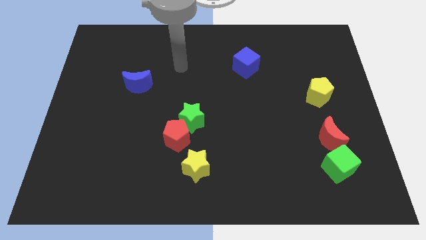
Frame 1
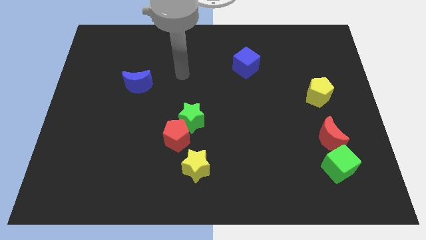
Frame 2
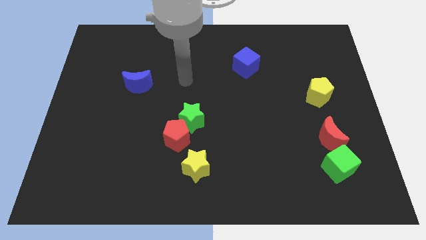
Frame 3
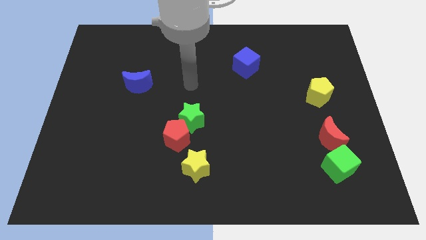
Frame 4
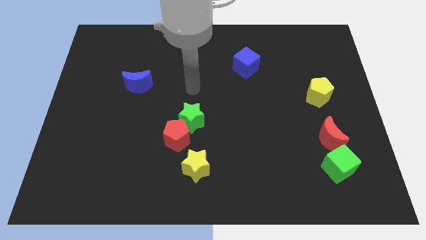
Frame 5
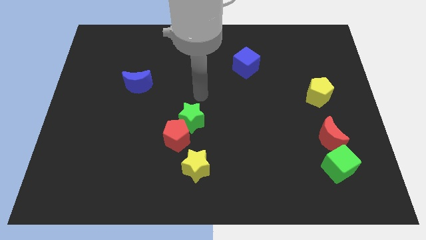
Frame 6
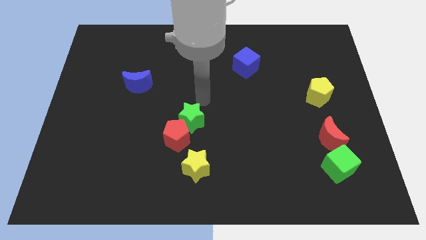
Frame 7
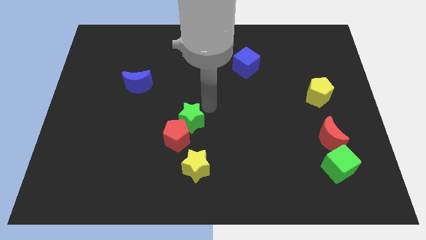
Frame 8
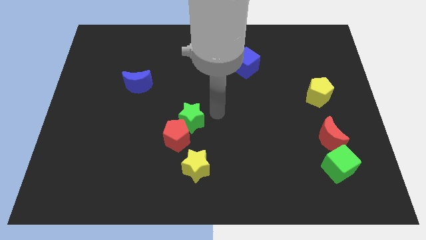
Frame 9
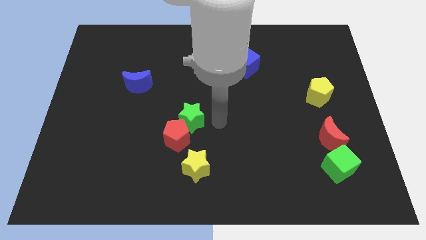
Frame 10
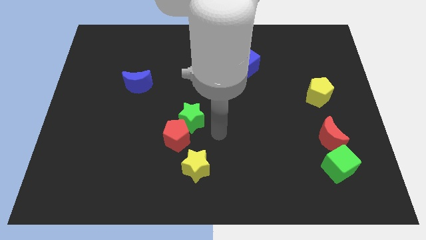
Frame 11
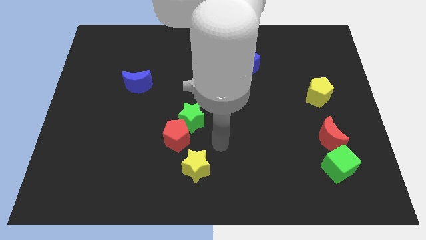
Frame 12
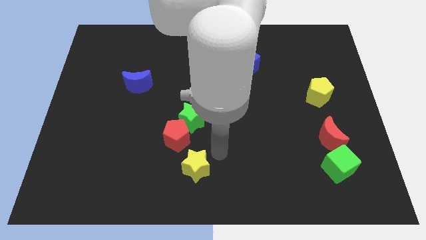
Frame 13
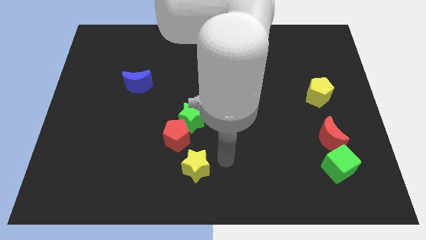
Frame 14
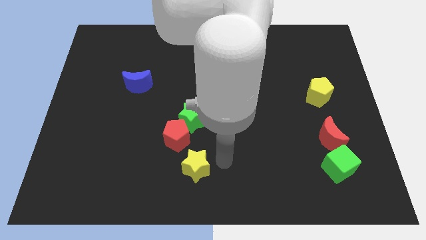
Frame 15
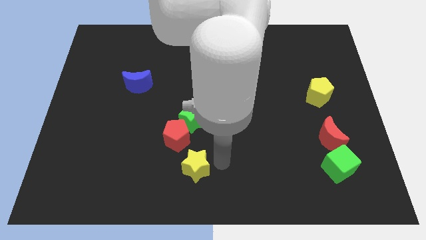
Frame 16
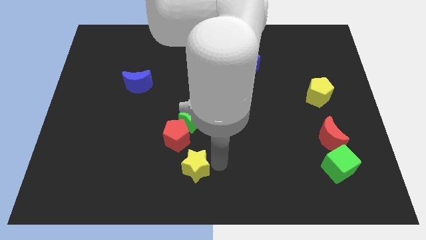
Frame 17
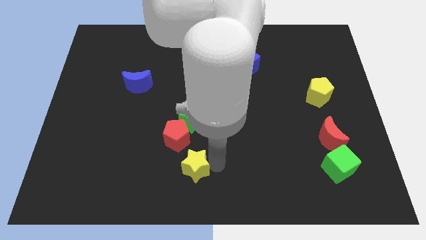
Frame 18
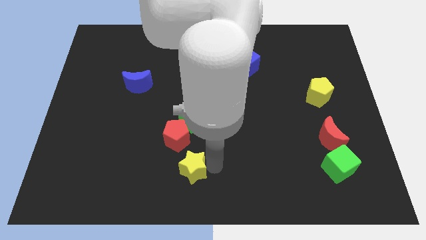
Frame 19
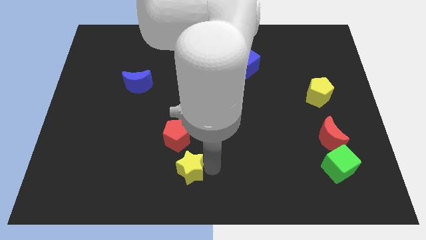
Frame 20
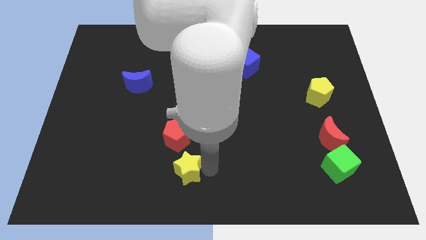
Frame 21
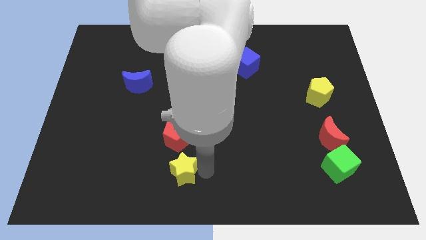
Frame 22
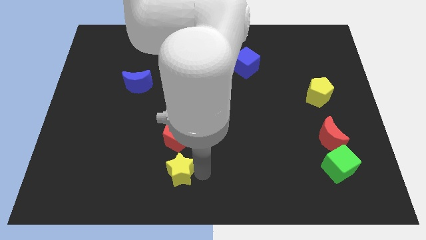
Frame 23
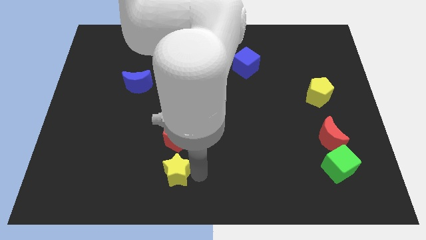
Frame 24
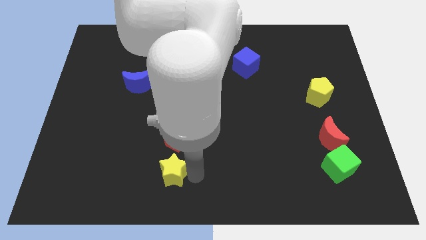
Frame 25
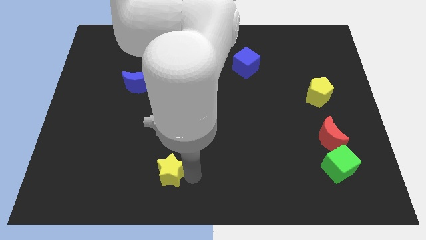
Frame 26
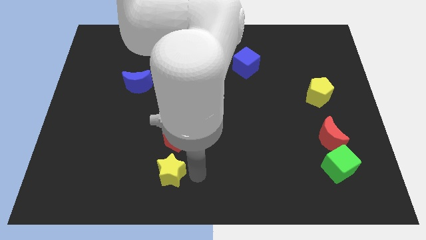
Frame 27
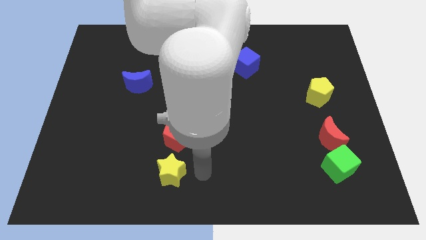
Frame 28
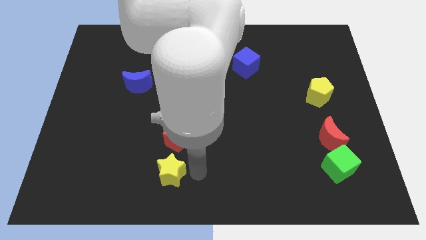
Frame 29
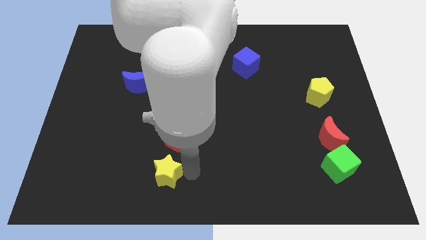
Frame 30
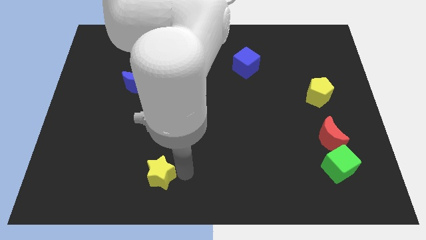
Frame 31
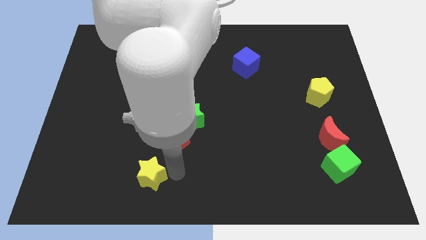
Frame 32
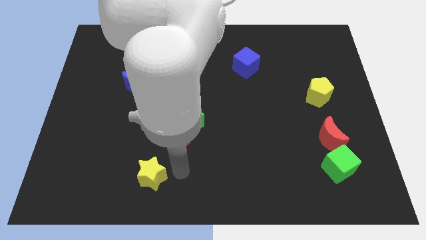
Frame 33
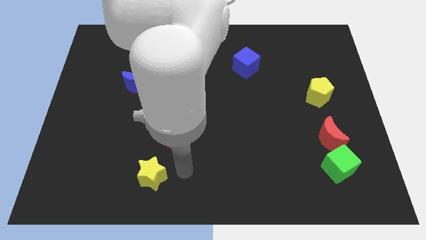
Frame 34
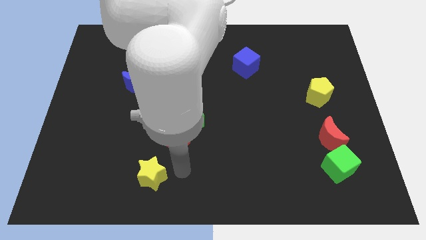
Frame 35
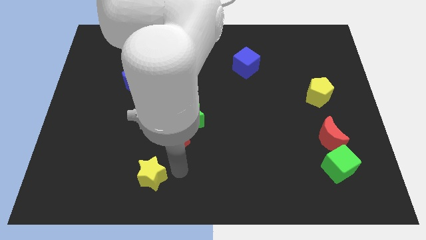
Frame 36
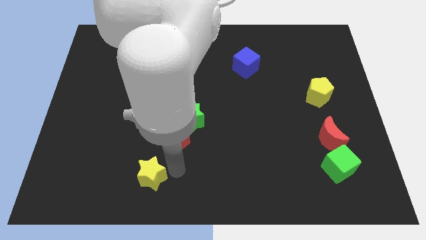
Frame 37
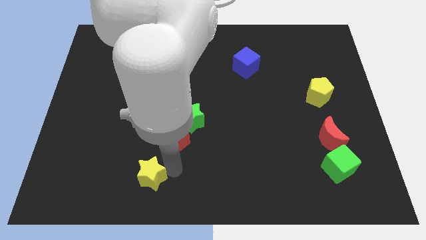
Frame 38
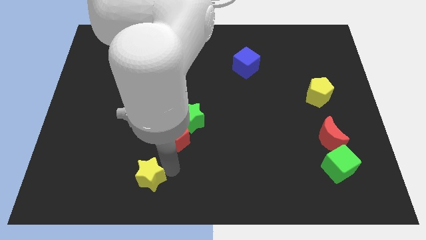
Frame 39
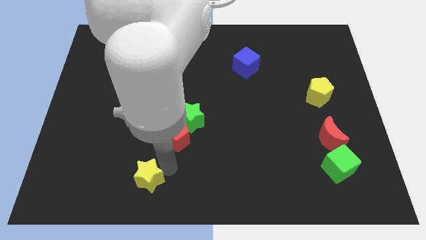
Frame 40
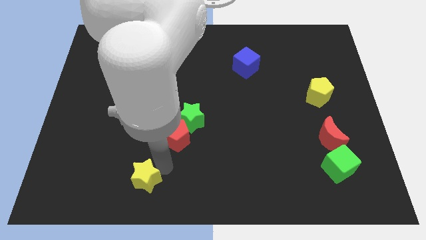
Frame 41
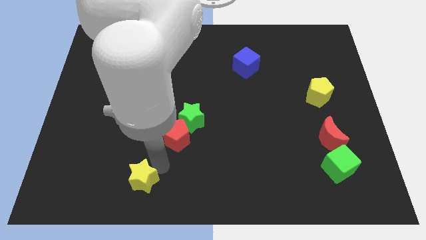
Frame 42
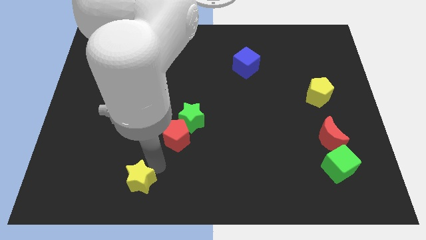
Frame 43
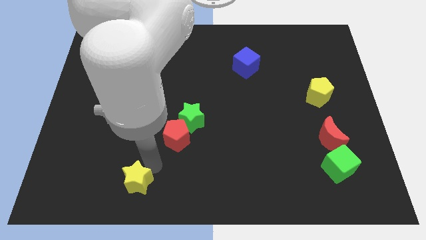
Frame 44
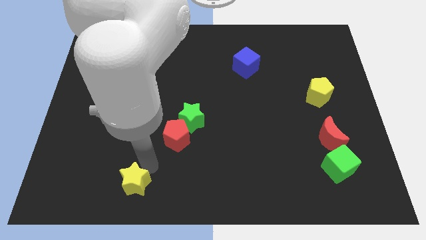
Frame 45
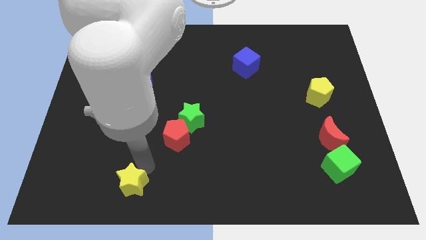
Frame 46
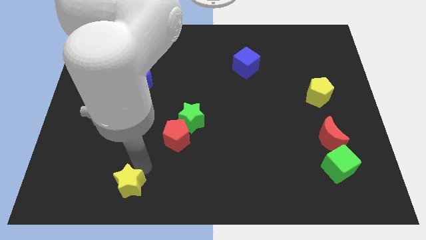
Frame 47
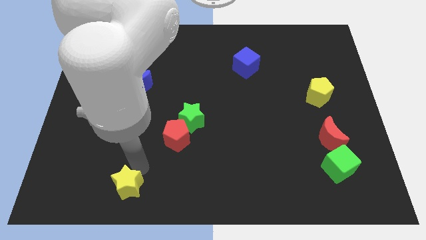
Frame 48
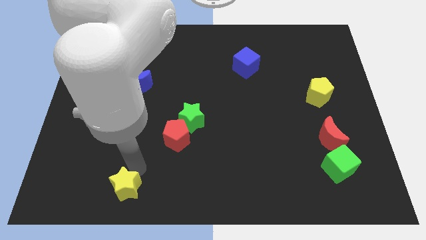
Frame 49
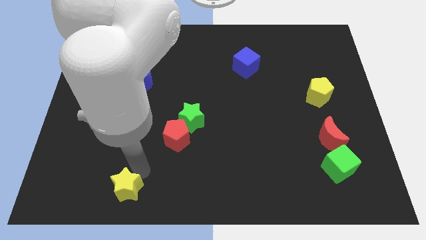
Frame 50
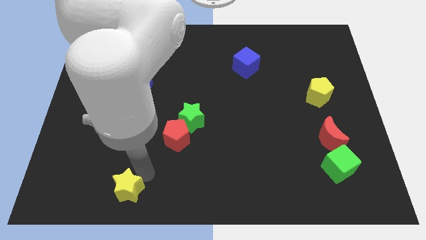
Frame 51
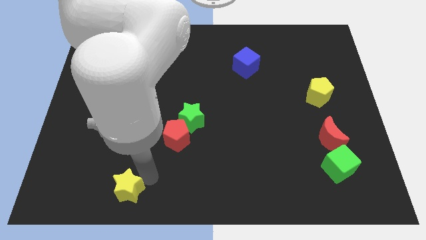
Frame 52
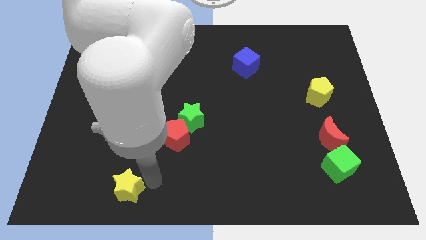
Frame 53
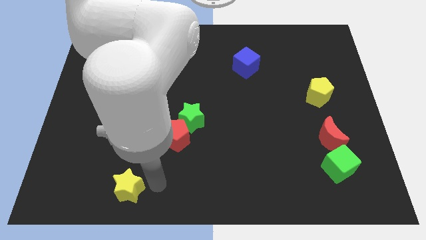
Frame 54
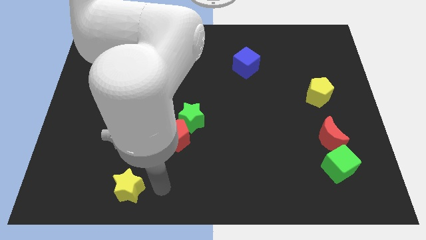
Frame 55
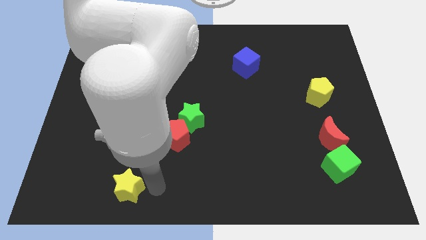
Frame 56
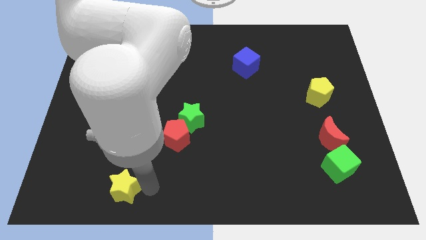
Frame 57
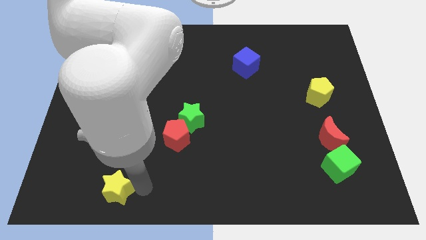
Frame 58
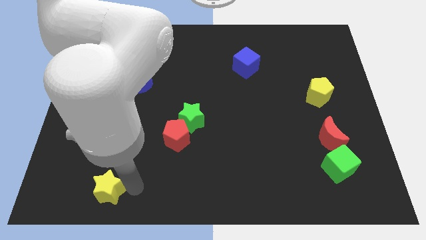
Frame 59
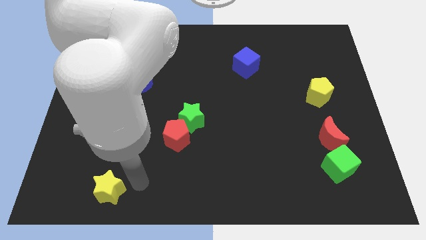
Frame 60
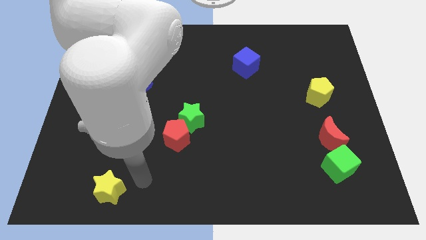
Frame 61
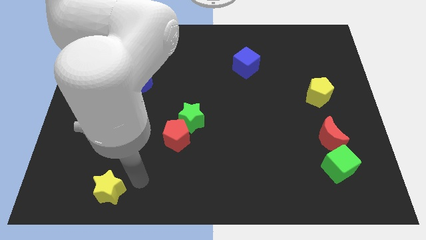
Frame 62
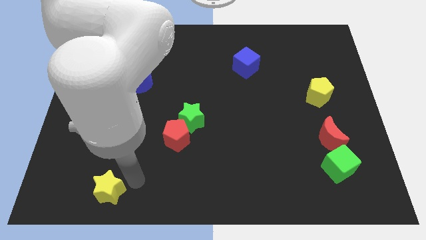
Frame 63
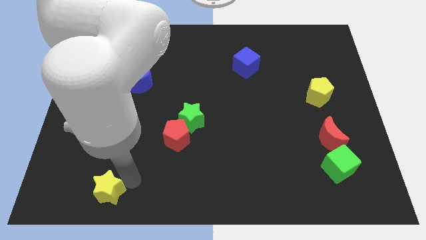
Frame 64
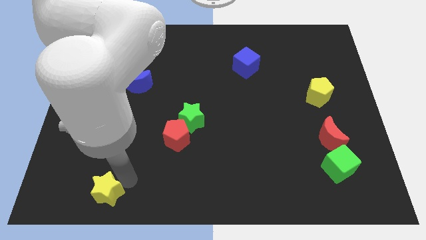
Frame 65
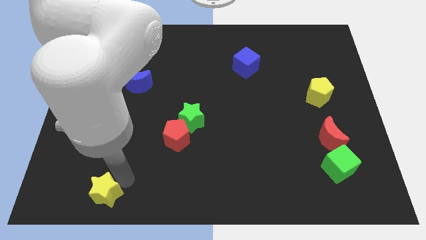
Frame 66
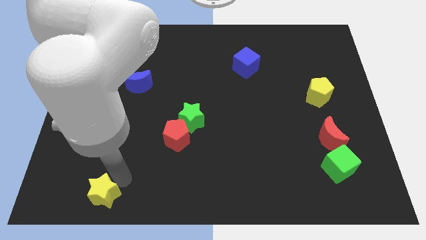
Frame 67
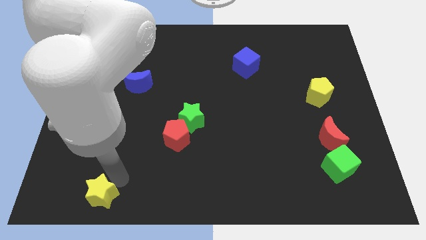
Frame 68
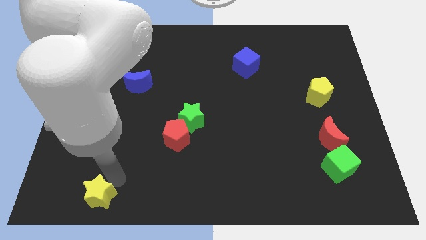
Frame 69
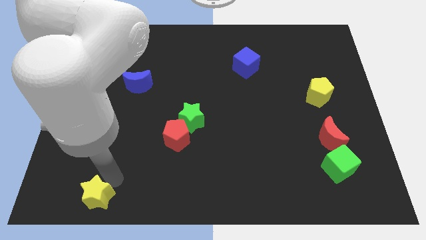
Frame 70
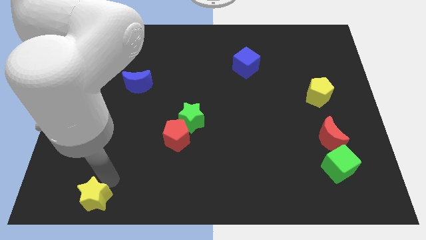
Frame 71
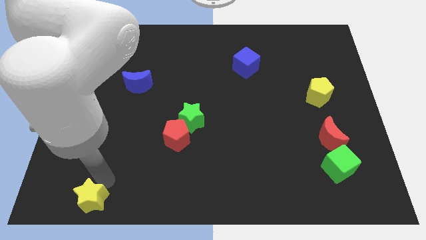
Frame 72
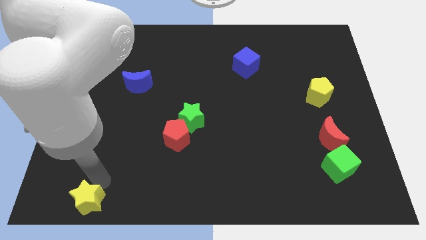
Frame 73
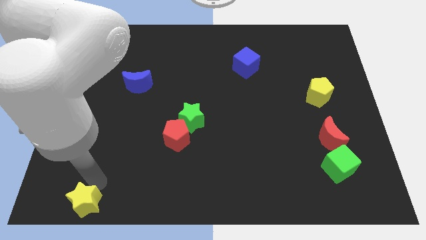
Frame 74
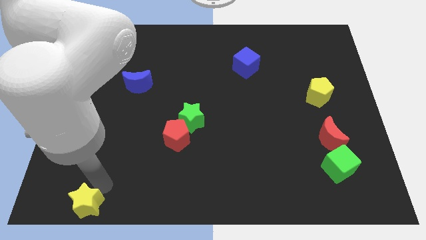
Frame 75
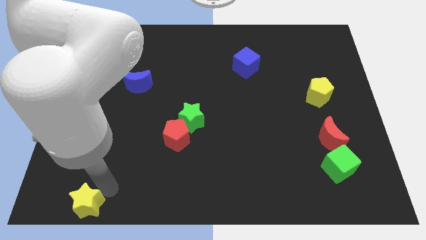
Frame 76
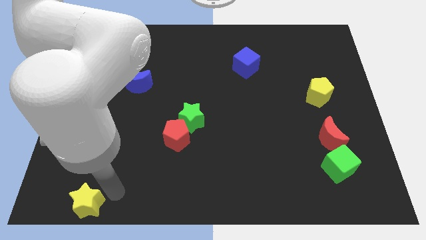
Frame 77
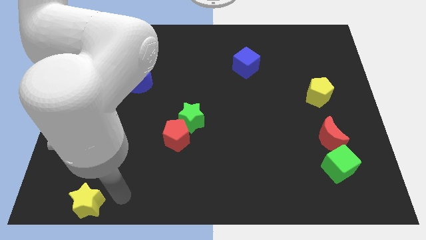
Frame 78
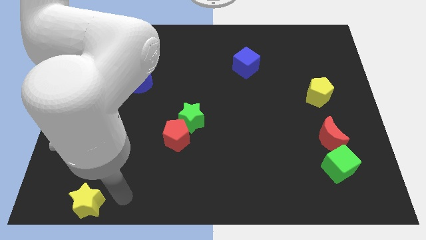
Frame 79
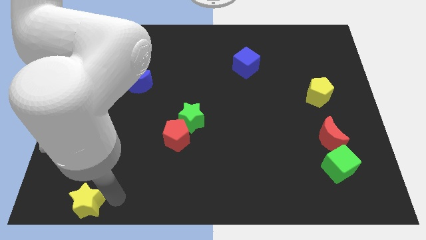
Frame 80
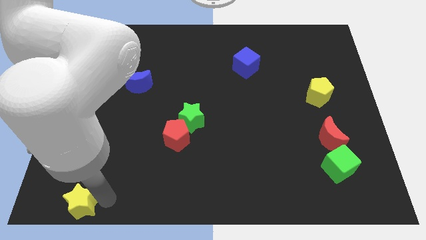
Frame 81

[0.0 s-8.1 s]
push the yellow star to the lower left corner
